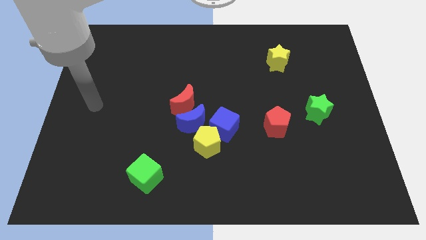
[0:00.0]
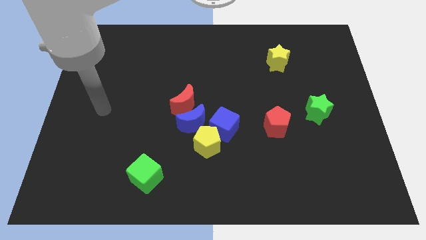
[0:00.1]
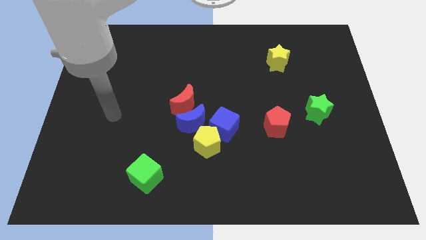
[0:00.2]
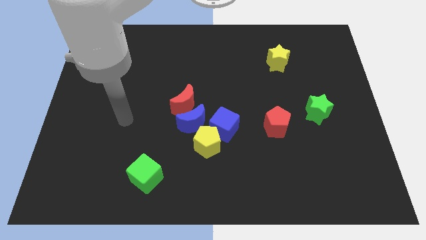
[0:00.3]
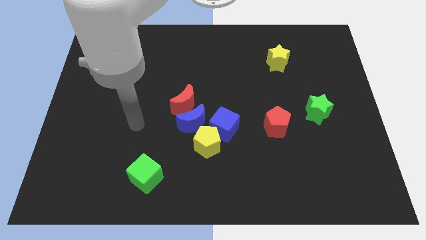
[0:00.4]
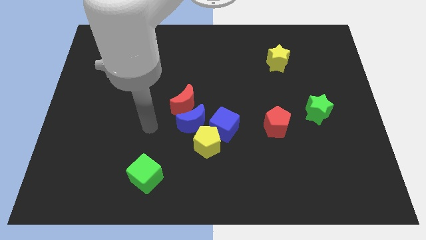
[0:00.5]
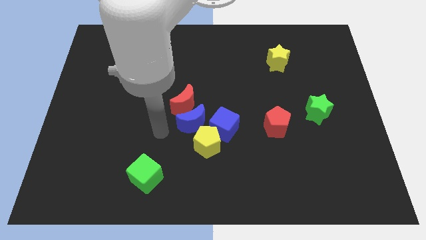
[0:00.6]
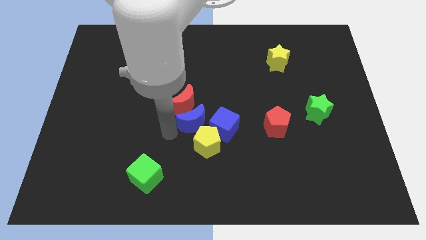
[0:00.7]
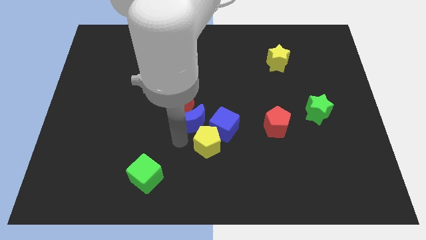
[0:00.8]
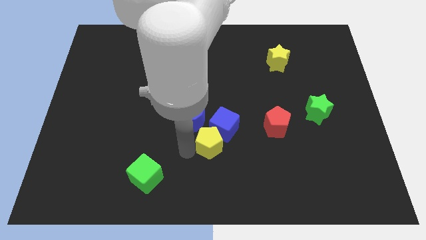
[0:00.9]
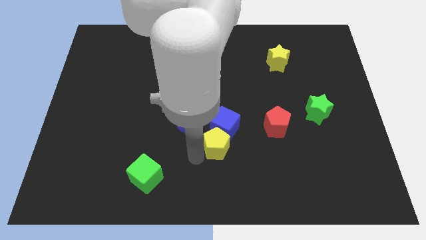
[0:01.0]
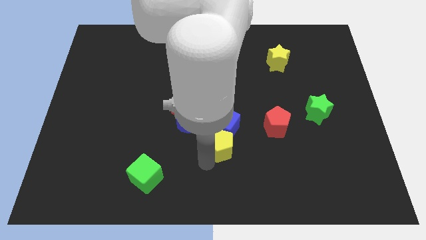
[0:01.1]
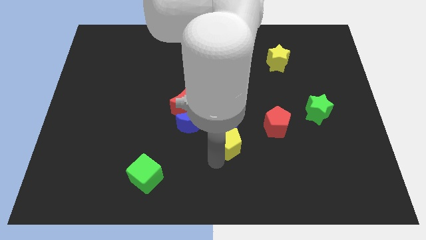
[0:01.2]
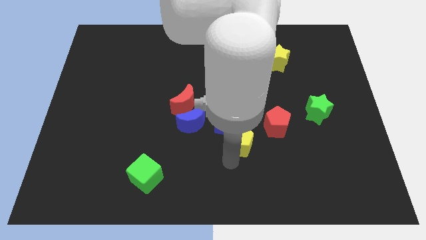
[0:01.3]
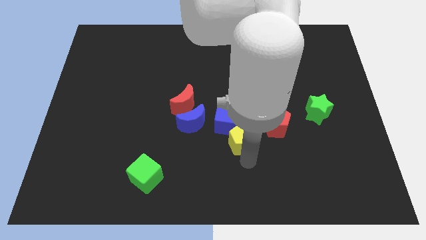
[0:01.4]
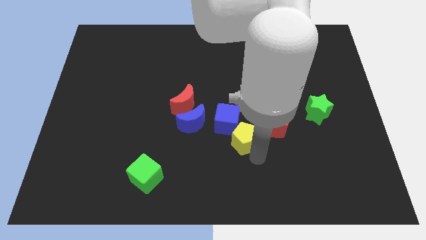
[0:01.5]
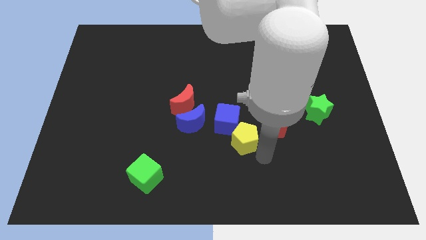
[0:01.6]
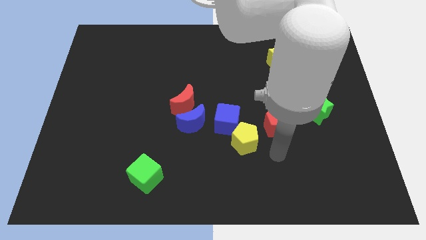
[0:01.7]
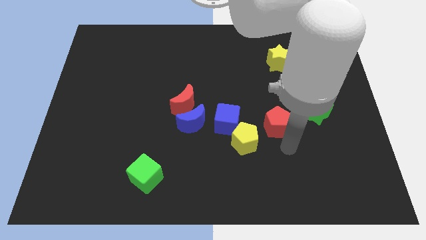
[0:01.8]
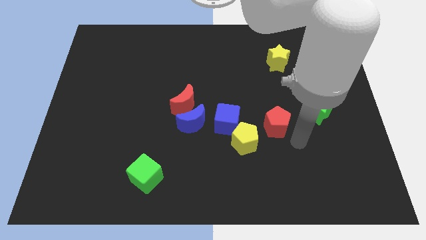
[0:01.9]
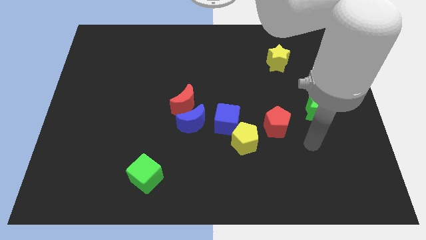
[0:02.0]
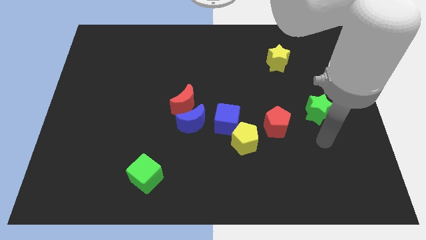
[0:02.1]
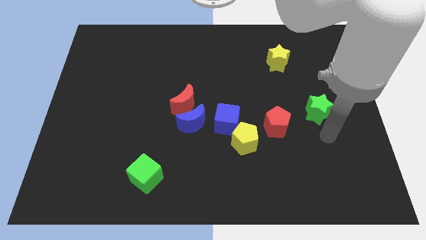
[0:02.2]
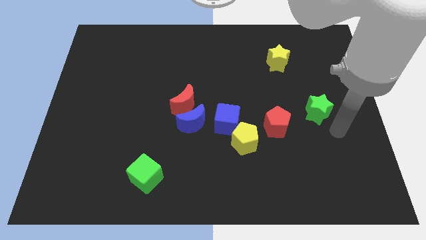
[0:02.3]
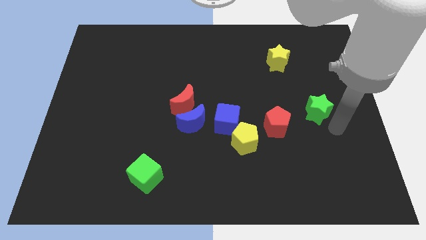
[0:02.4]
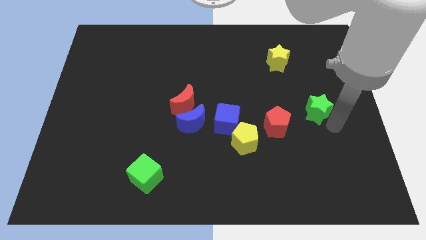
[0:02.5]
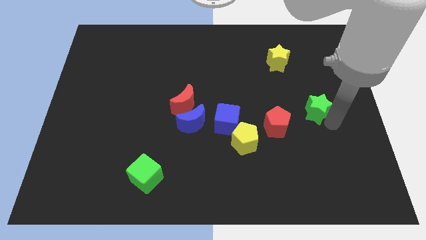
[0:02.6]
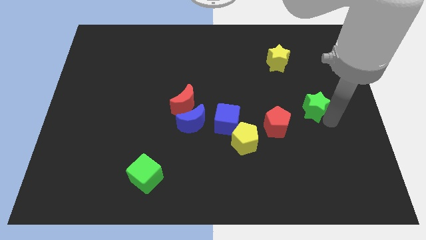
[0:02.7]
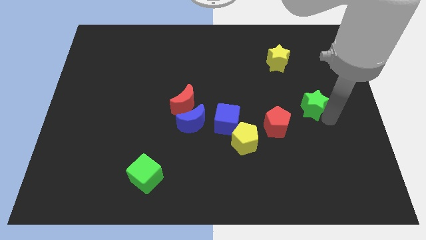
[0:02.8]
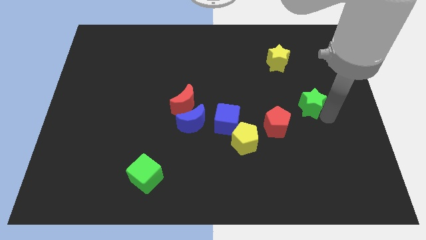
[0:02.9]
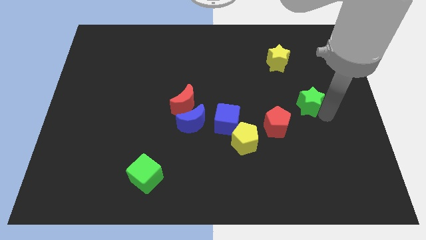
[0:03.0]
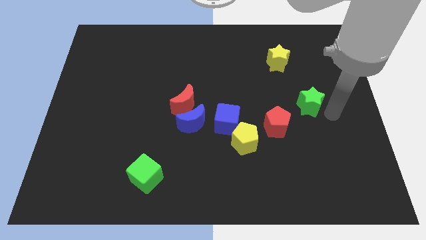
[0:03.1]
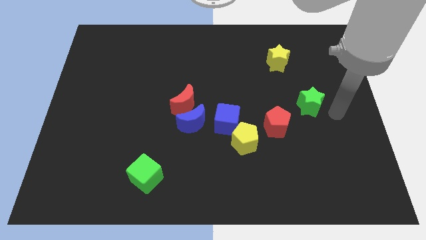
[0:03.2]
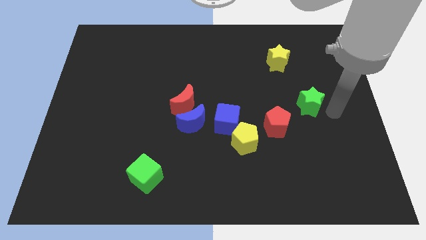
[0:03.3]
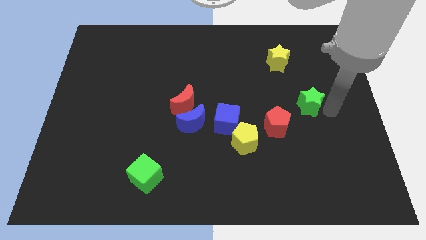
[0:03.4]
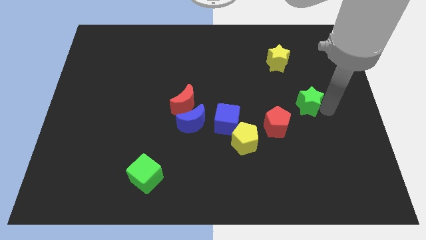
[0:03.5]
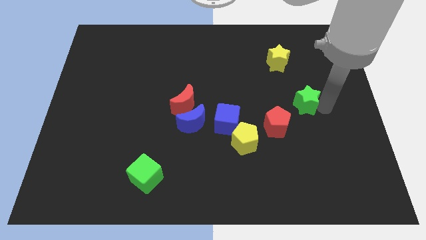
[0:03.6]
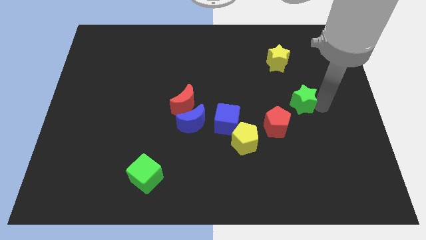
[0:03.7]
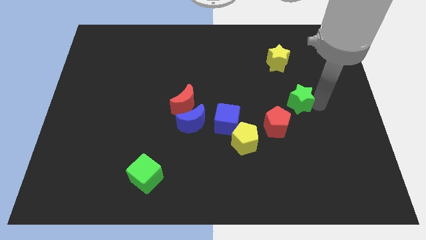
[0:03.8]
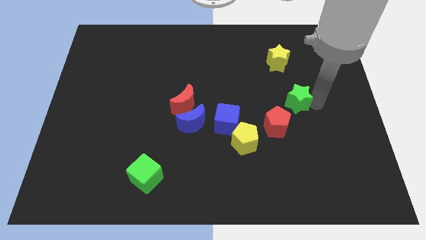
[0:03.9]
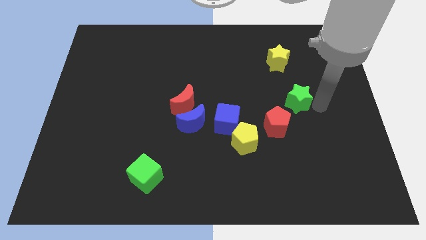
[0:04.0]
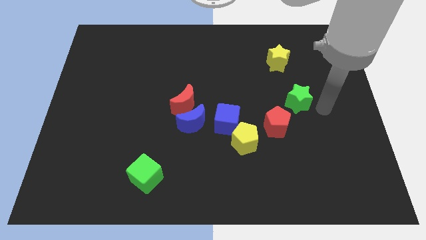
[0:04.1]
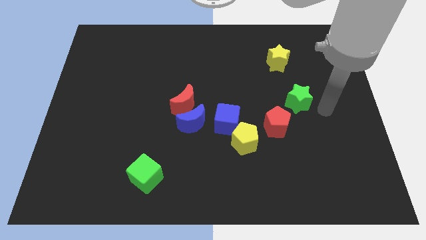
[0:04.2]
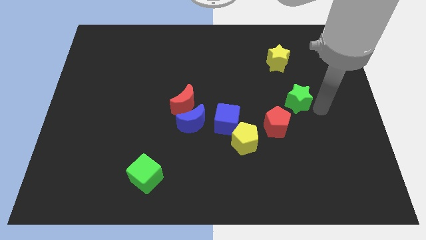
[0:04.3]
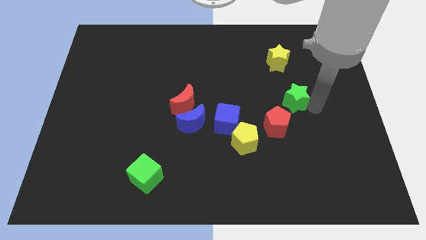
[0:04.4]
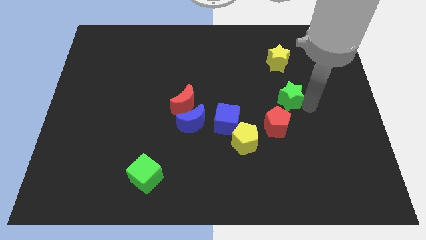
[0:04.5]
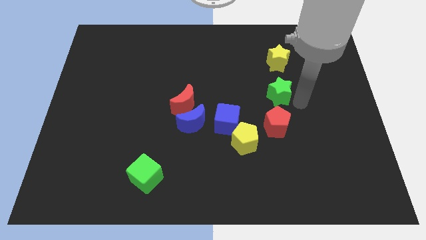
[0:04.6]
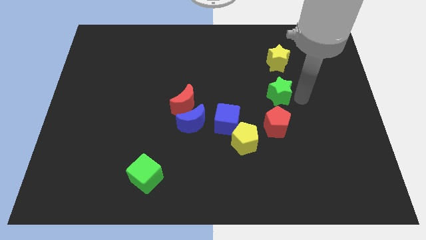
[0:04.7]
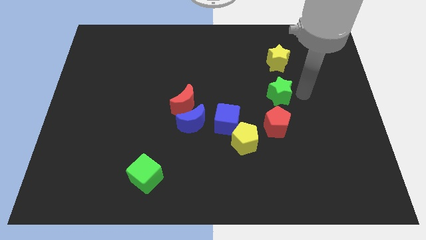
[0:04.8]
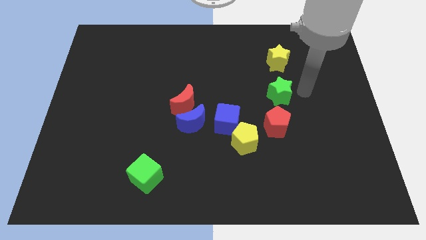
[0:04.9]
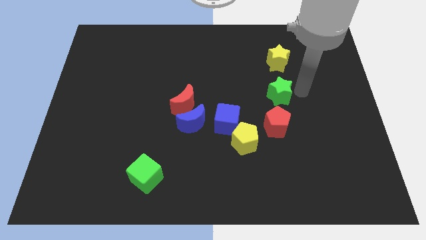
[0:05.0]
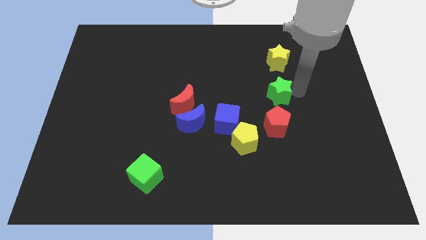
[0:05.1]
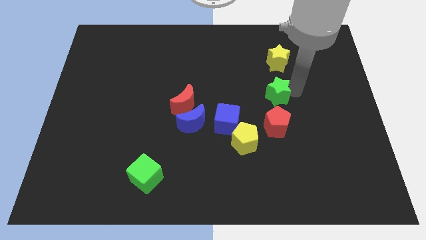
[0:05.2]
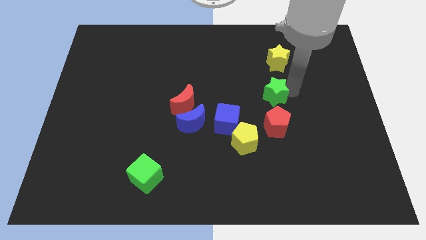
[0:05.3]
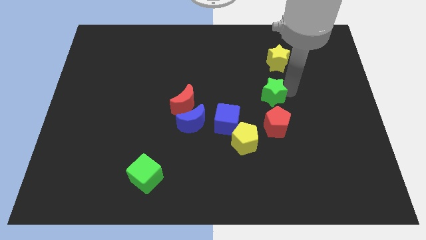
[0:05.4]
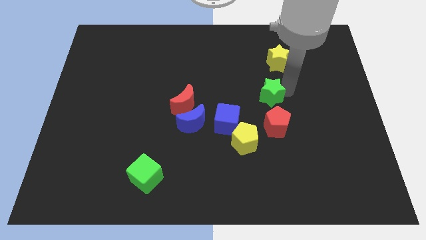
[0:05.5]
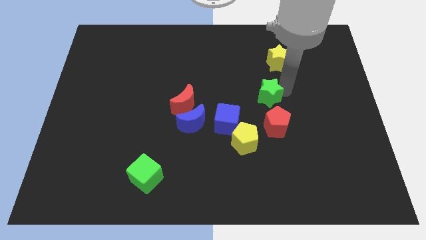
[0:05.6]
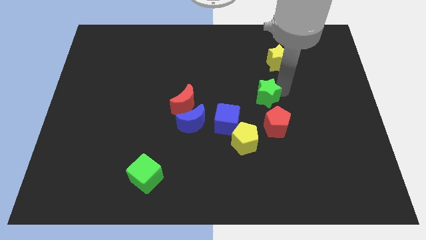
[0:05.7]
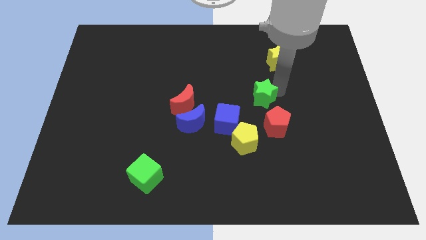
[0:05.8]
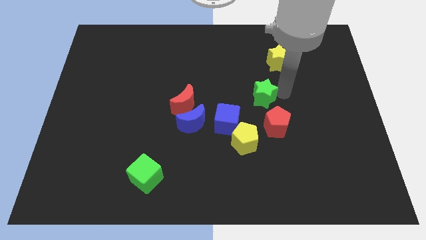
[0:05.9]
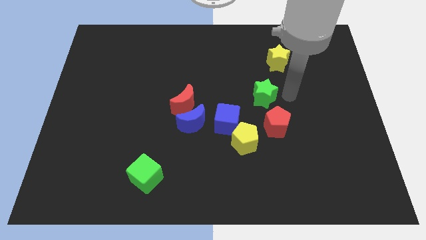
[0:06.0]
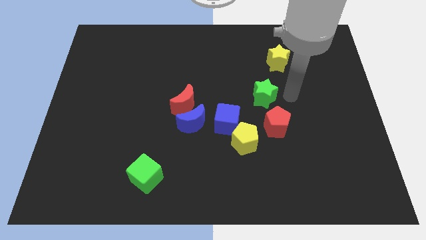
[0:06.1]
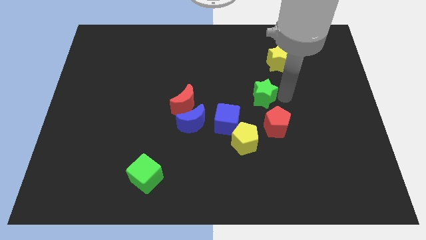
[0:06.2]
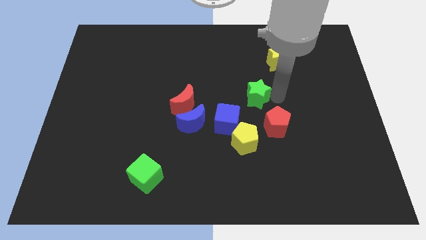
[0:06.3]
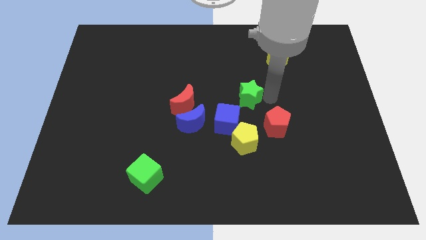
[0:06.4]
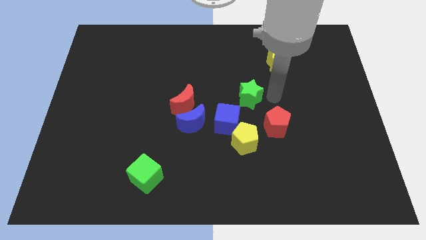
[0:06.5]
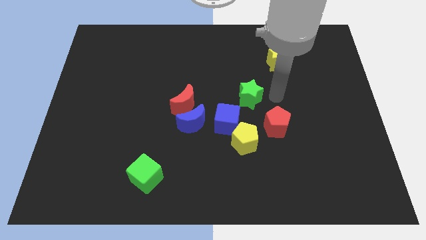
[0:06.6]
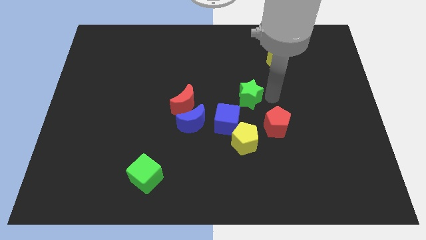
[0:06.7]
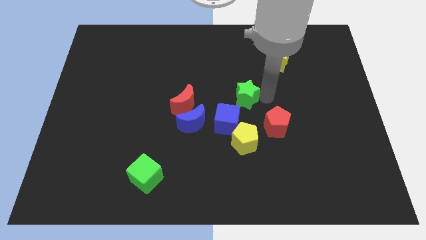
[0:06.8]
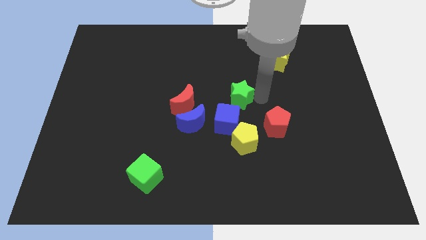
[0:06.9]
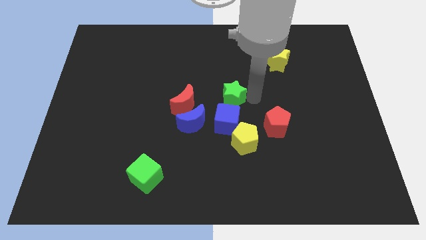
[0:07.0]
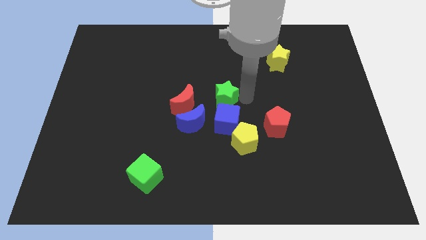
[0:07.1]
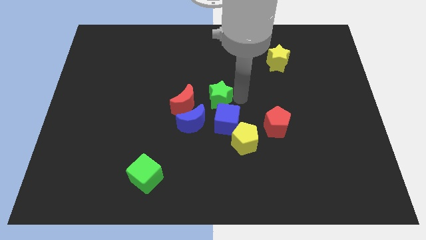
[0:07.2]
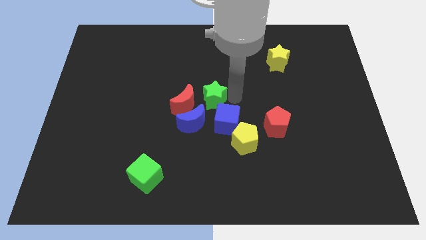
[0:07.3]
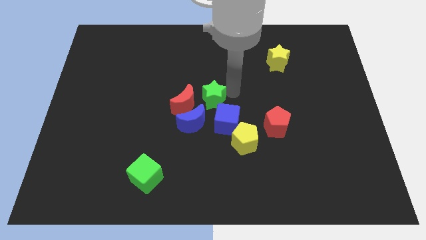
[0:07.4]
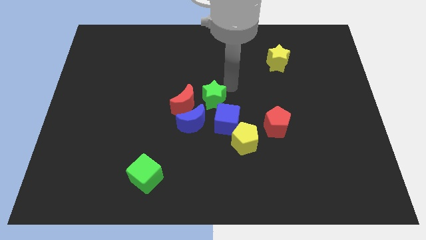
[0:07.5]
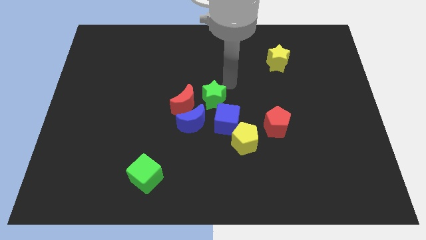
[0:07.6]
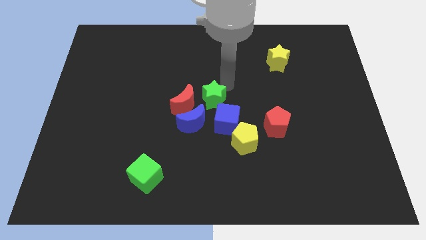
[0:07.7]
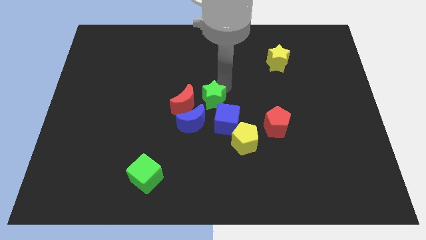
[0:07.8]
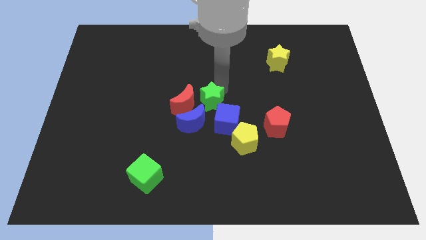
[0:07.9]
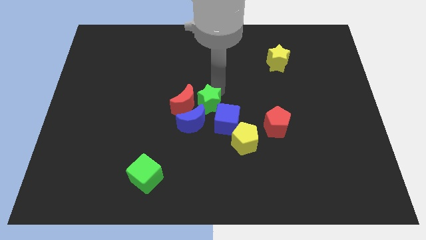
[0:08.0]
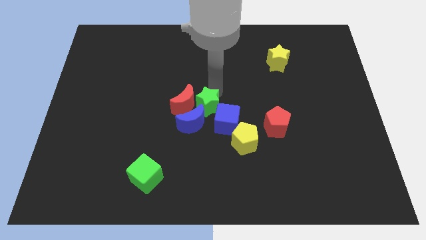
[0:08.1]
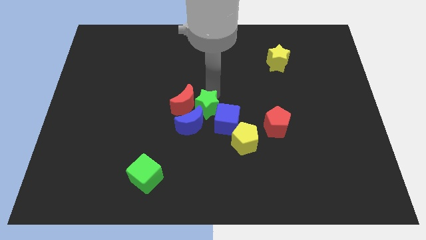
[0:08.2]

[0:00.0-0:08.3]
put the green star next to the blue moon
